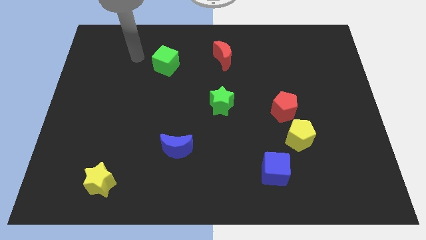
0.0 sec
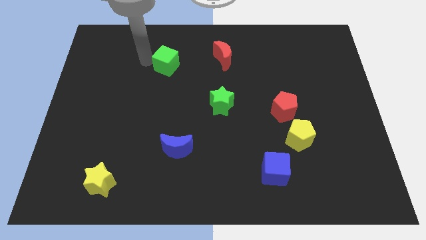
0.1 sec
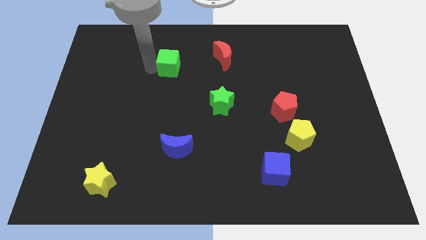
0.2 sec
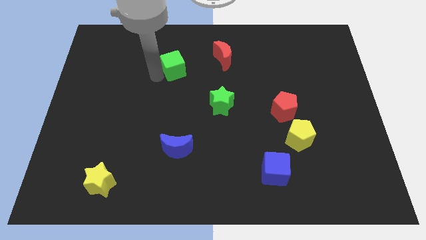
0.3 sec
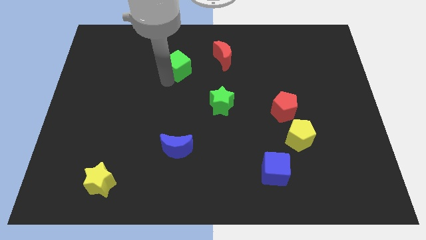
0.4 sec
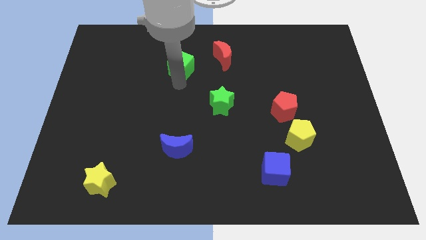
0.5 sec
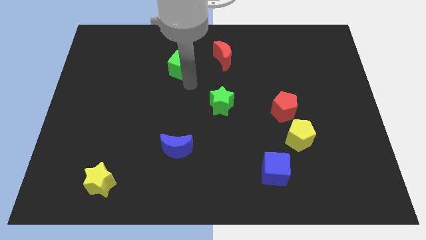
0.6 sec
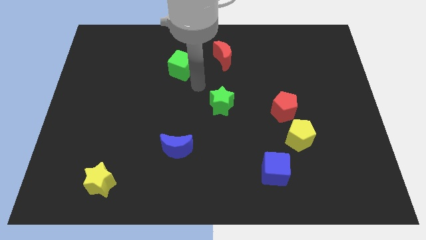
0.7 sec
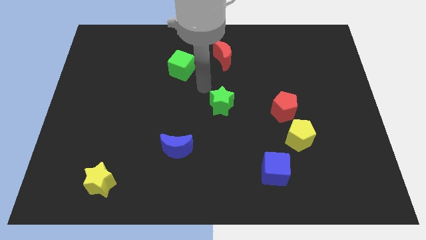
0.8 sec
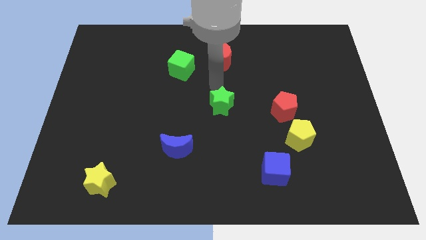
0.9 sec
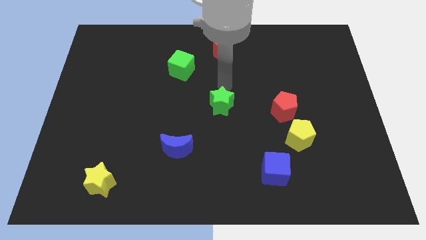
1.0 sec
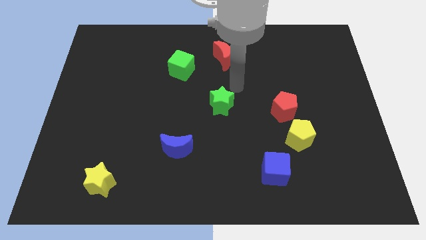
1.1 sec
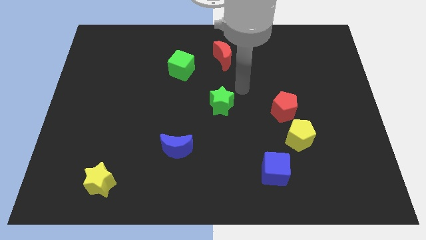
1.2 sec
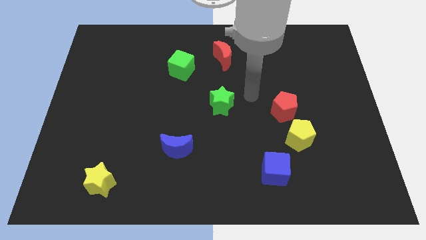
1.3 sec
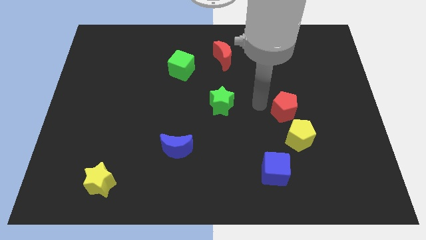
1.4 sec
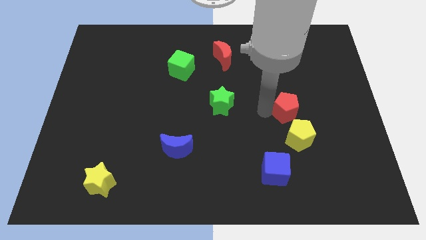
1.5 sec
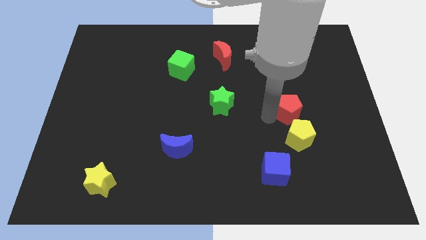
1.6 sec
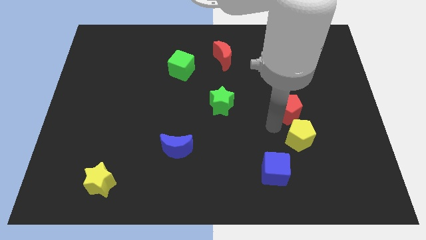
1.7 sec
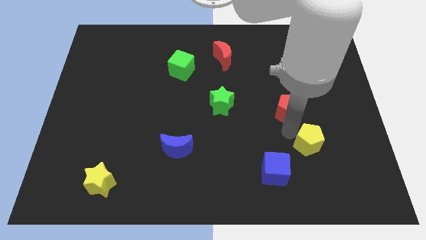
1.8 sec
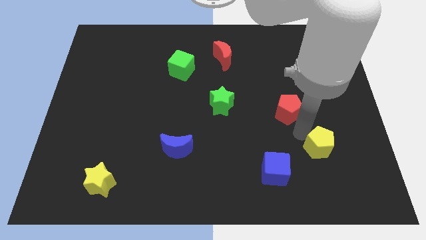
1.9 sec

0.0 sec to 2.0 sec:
separate the red pentagon from the yellow pentagon

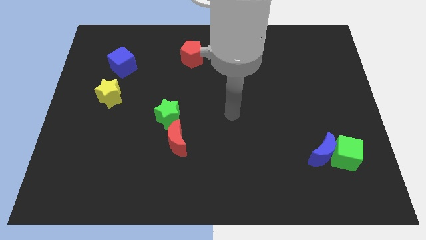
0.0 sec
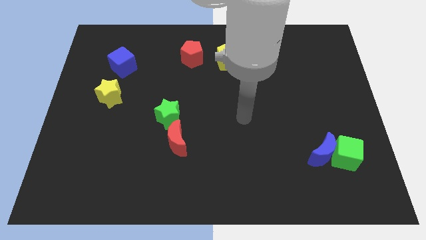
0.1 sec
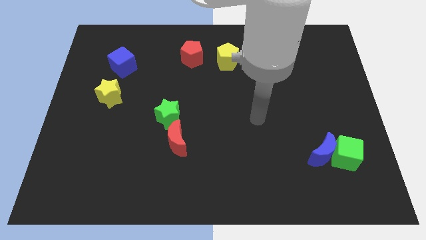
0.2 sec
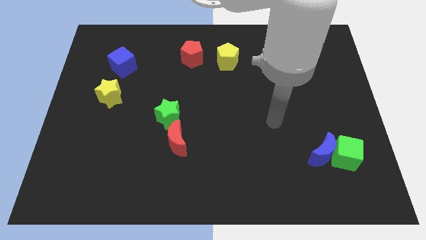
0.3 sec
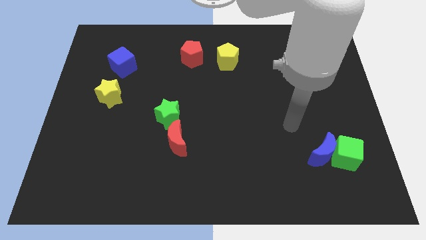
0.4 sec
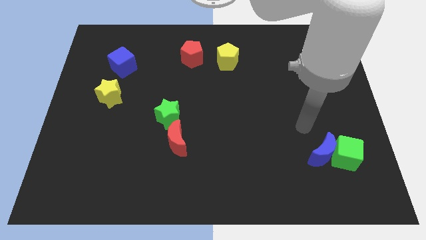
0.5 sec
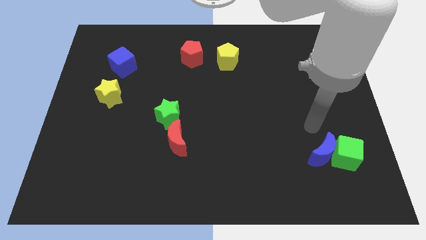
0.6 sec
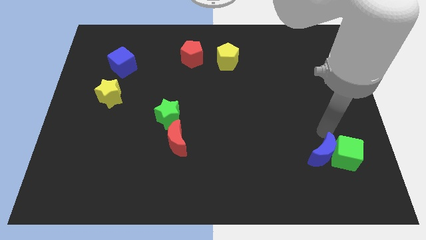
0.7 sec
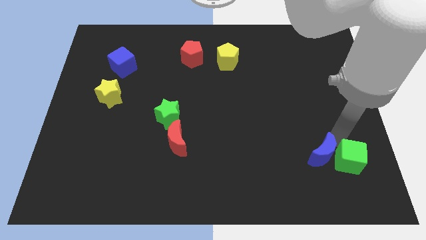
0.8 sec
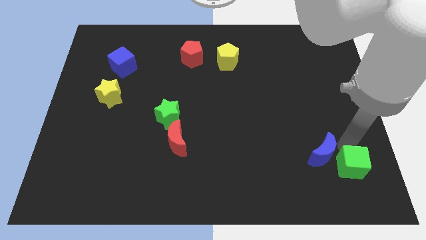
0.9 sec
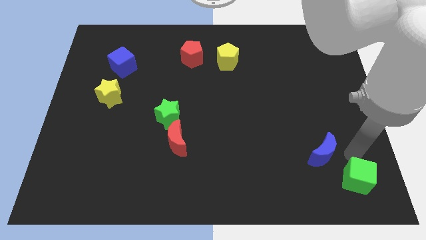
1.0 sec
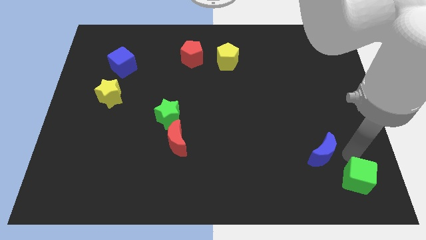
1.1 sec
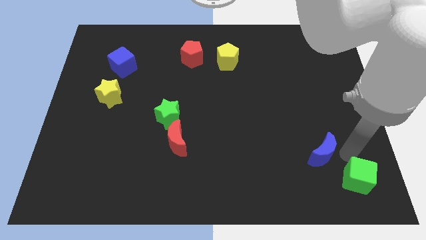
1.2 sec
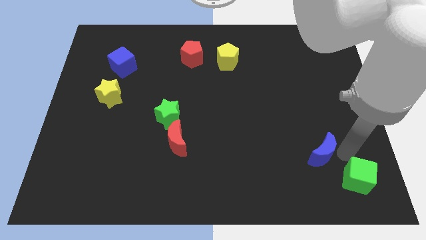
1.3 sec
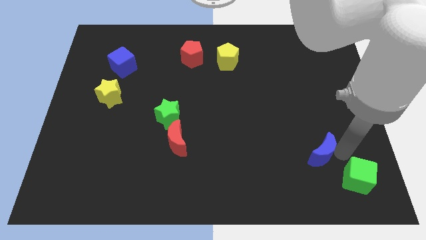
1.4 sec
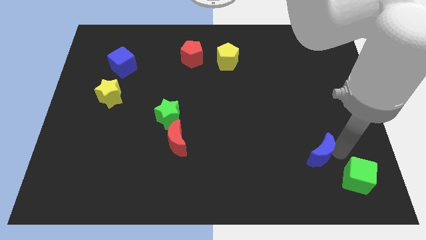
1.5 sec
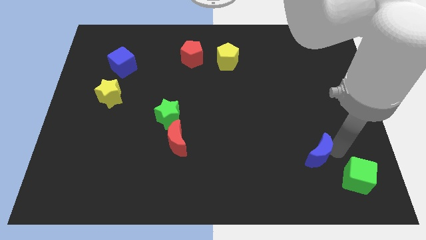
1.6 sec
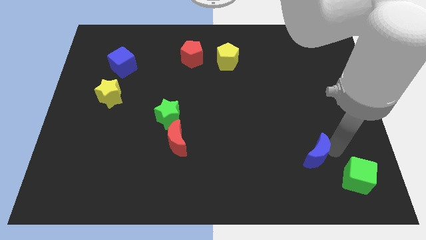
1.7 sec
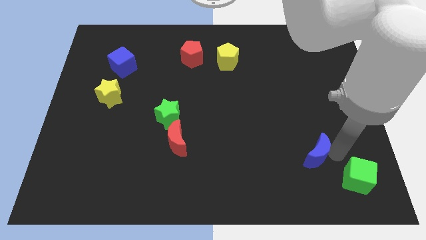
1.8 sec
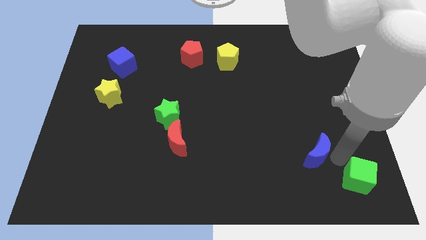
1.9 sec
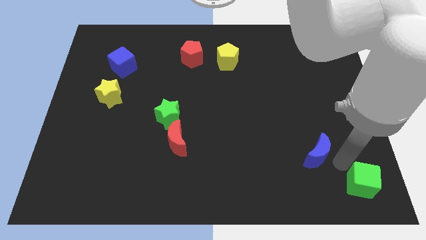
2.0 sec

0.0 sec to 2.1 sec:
separate the blue moon from the green cube

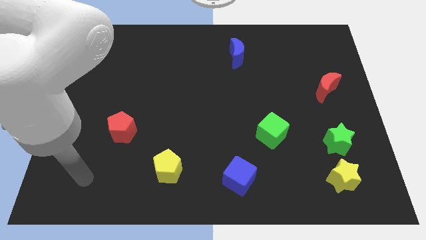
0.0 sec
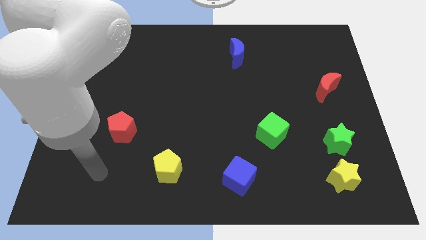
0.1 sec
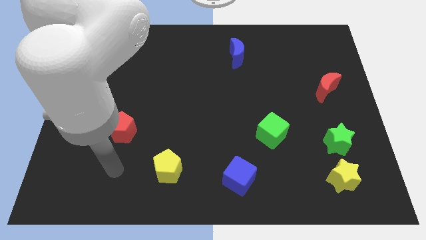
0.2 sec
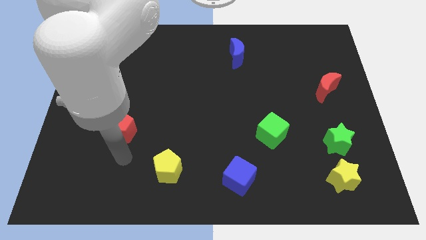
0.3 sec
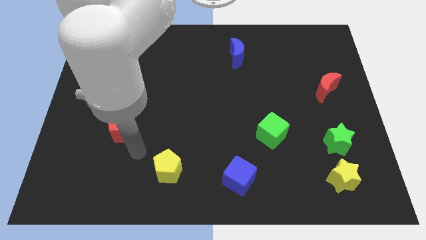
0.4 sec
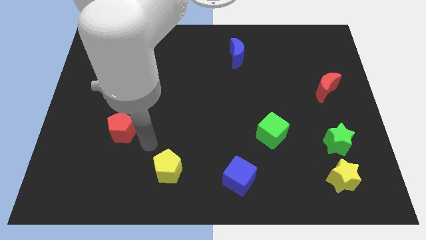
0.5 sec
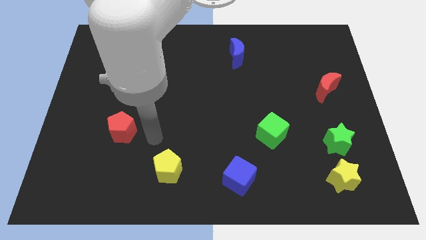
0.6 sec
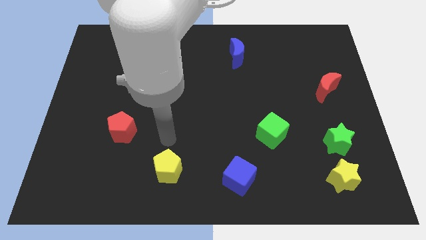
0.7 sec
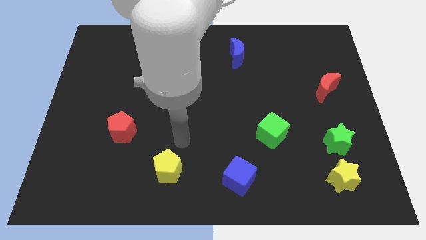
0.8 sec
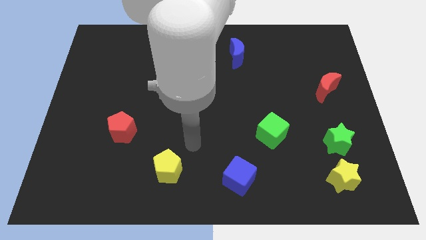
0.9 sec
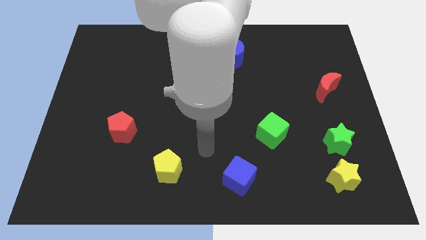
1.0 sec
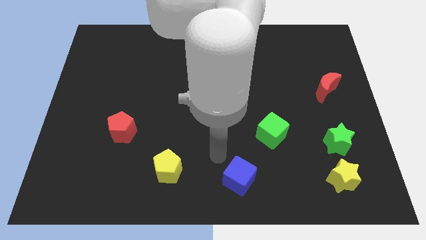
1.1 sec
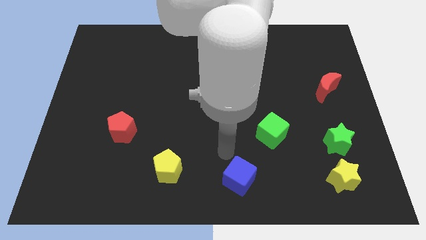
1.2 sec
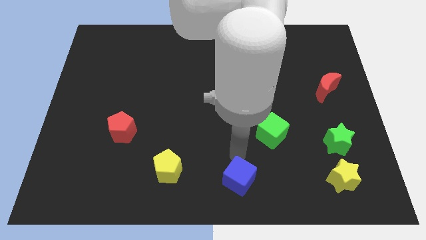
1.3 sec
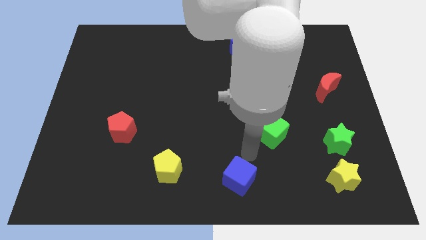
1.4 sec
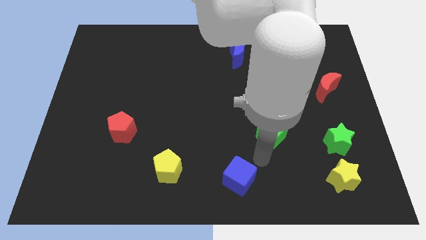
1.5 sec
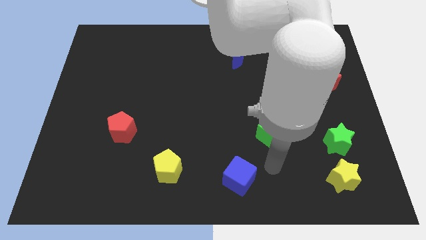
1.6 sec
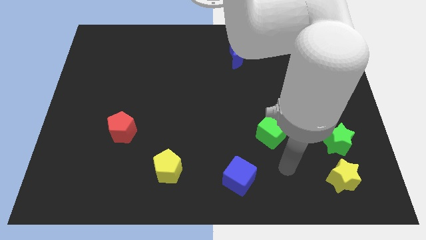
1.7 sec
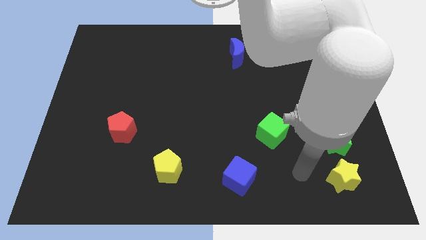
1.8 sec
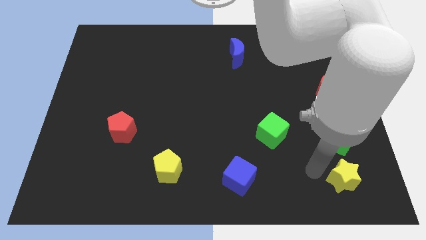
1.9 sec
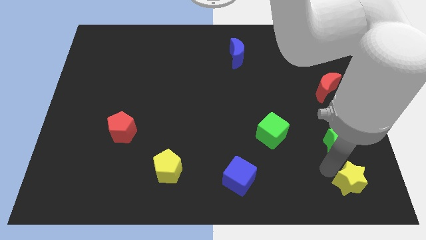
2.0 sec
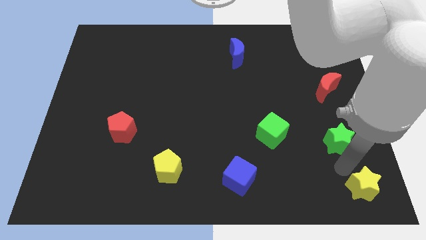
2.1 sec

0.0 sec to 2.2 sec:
separate the green star from the yellow star

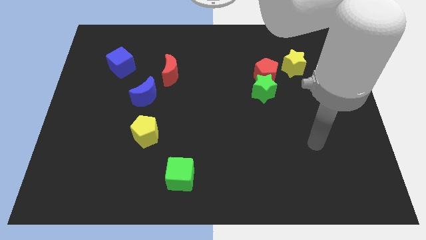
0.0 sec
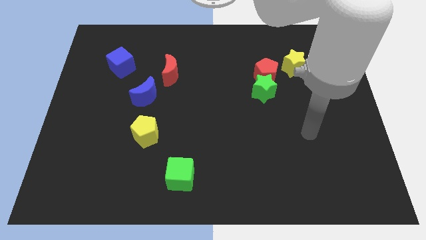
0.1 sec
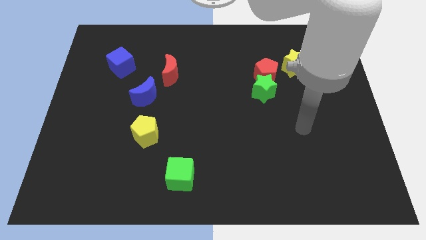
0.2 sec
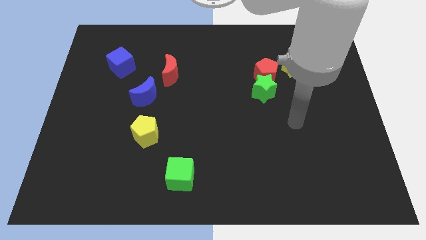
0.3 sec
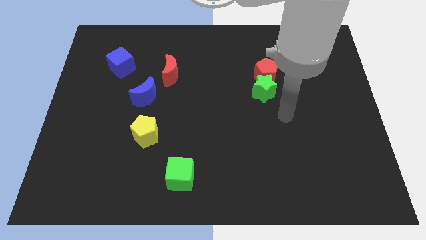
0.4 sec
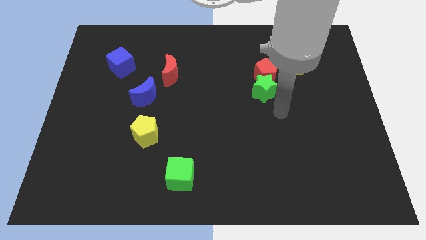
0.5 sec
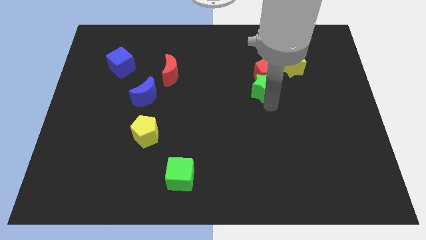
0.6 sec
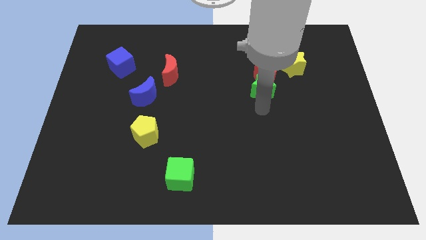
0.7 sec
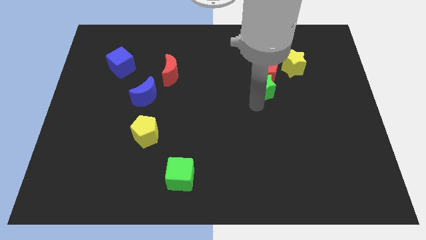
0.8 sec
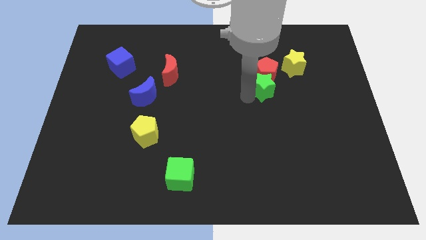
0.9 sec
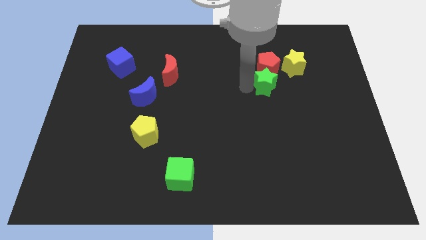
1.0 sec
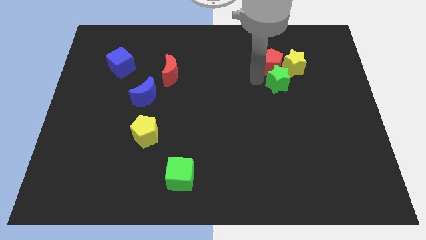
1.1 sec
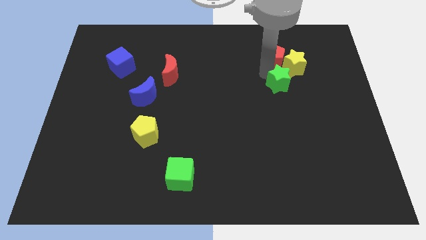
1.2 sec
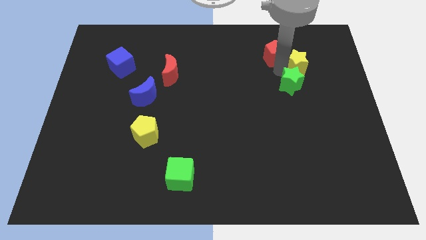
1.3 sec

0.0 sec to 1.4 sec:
pull the green star apart from the red pentagon

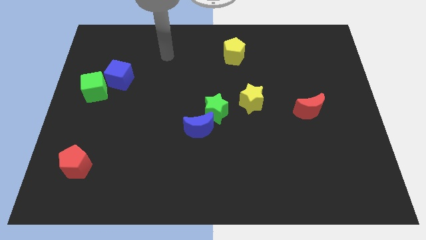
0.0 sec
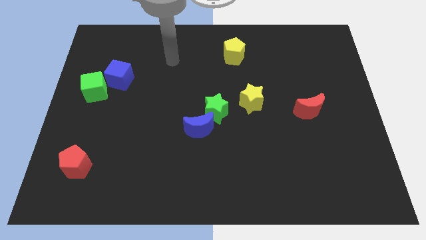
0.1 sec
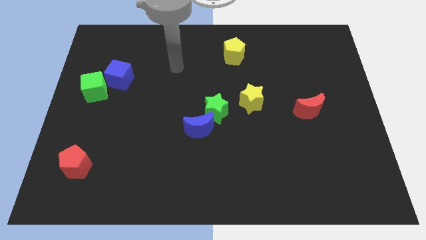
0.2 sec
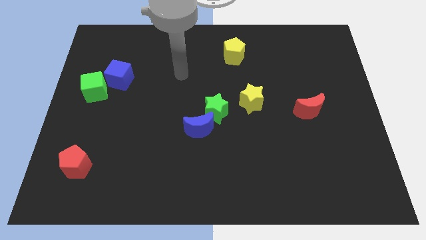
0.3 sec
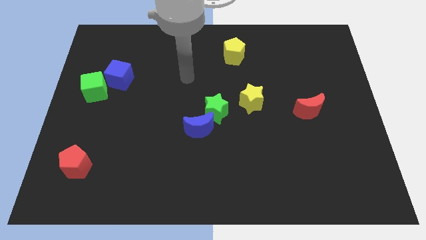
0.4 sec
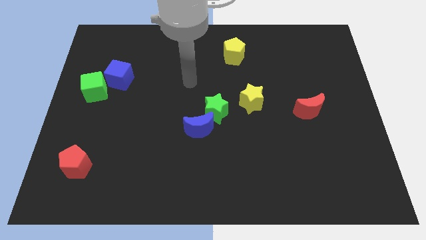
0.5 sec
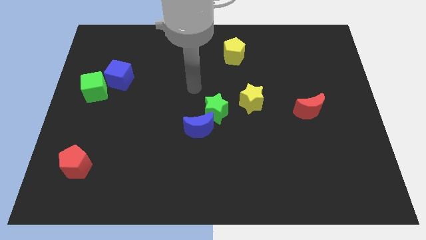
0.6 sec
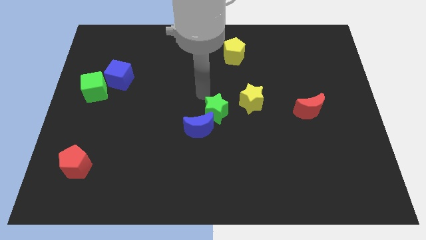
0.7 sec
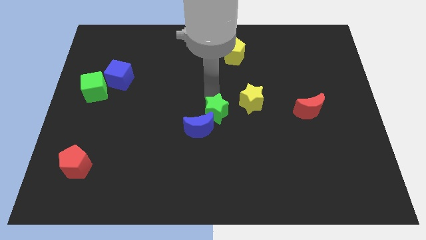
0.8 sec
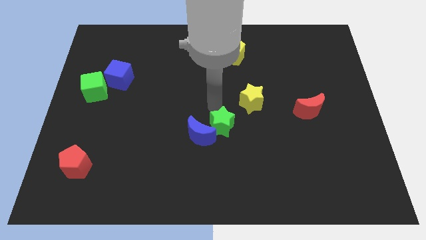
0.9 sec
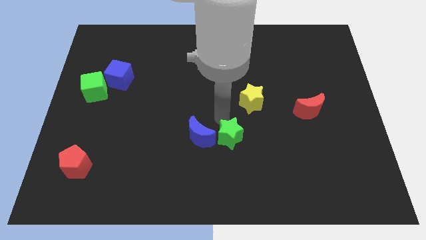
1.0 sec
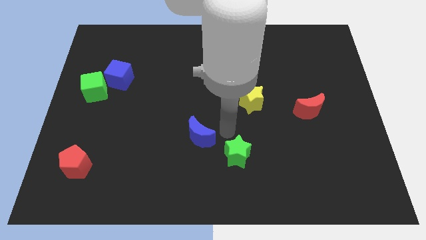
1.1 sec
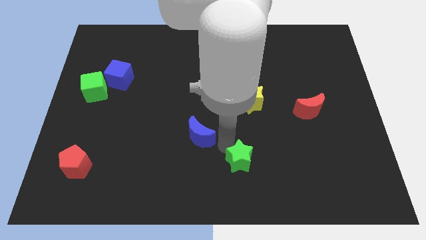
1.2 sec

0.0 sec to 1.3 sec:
pull the blue moon apart from the green star

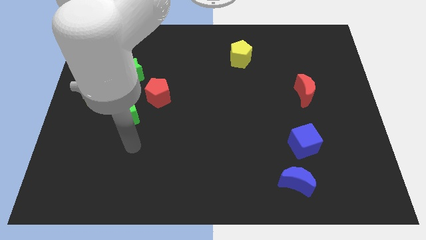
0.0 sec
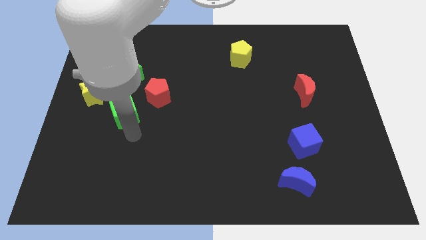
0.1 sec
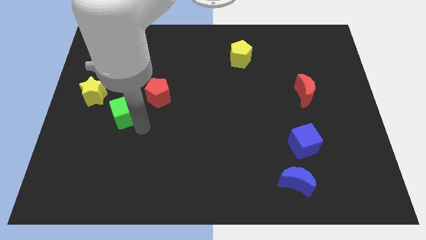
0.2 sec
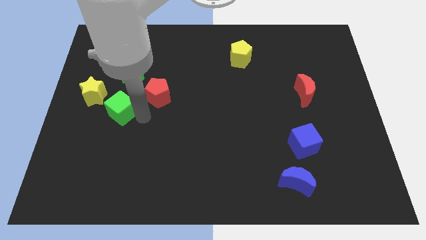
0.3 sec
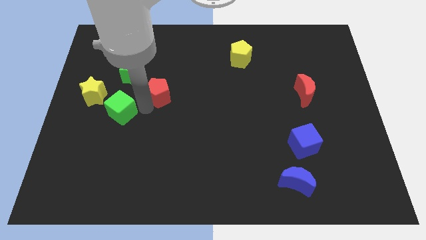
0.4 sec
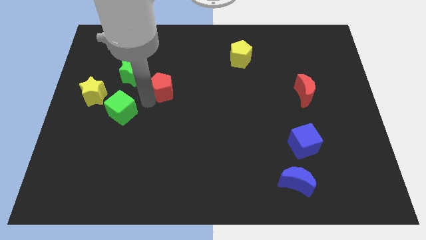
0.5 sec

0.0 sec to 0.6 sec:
pull the green cube apart from the red pentagon
